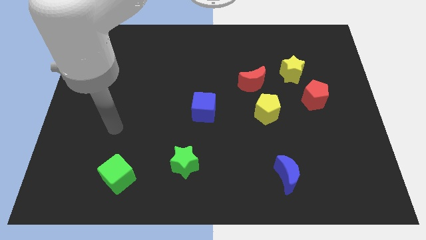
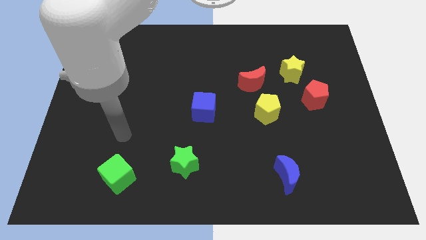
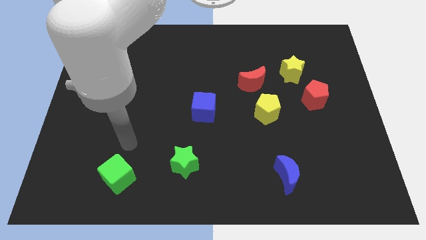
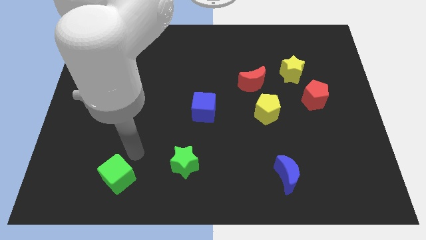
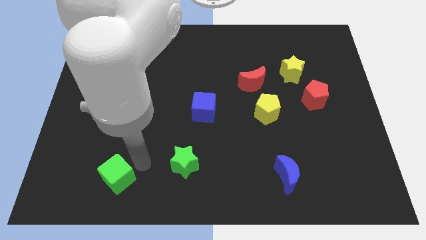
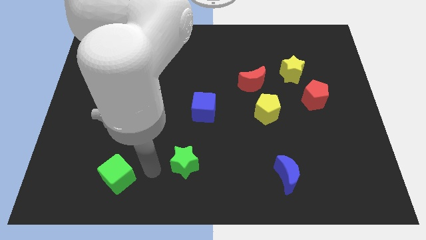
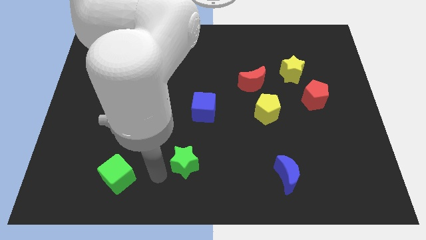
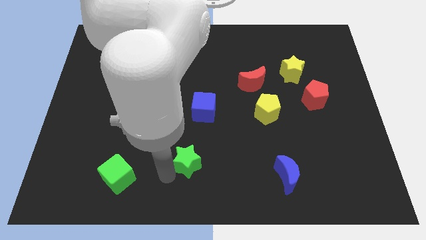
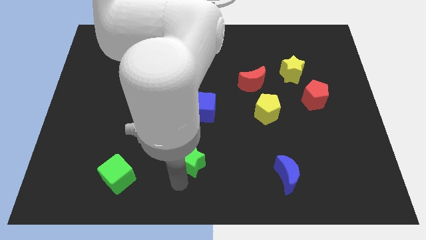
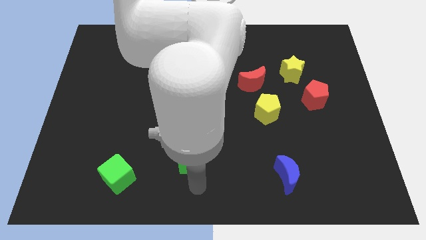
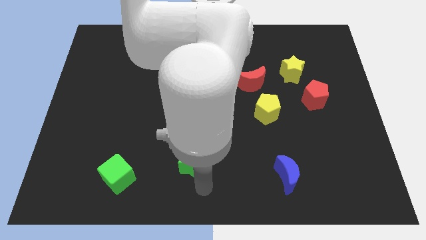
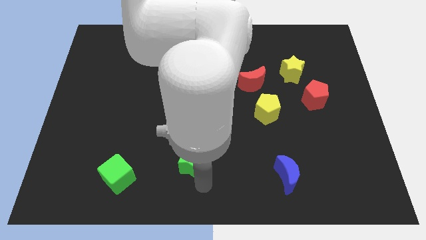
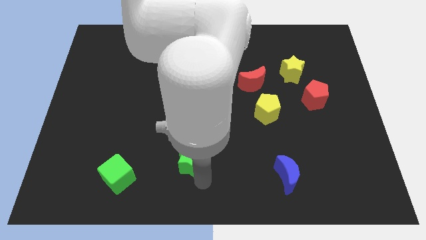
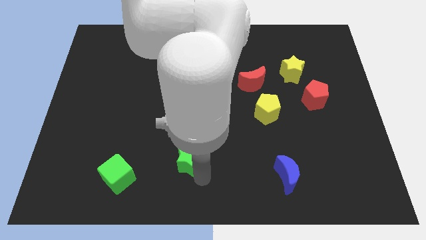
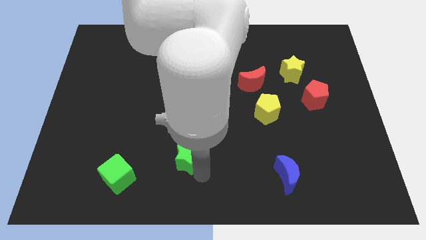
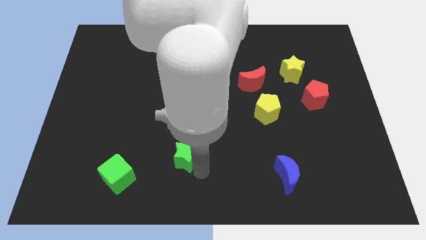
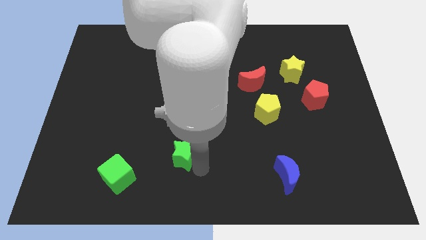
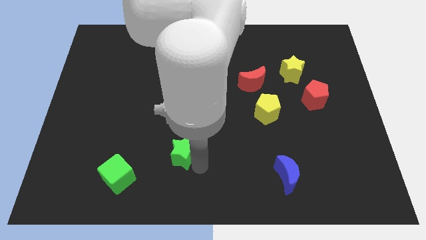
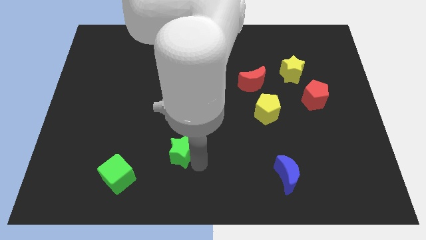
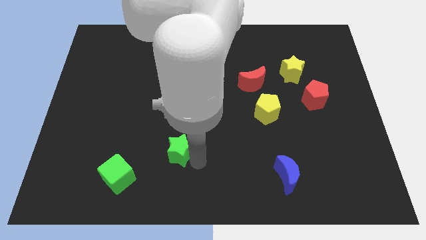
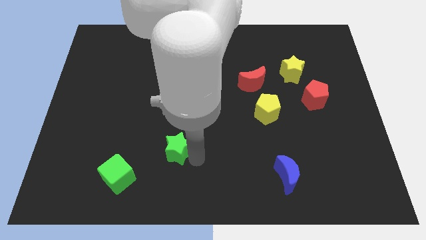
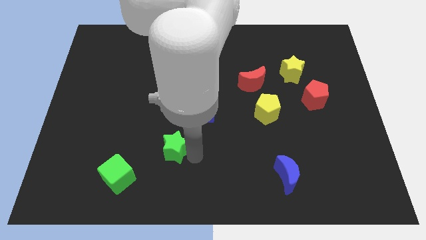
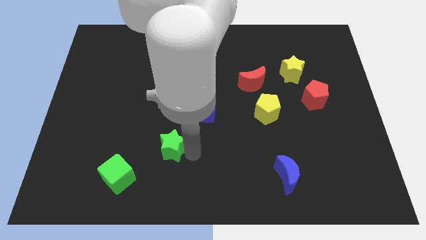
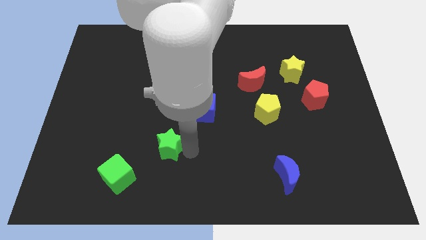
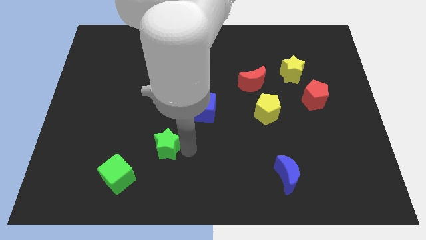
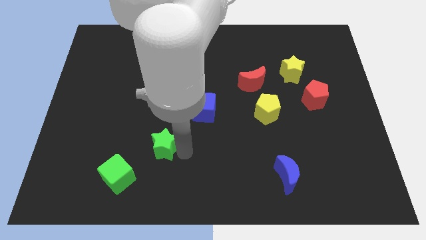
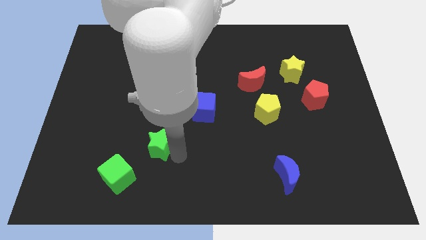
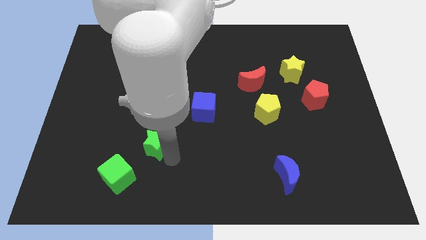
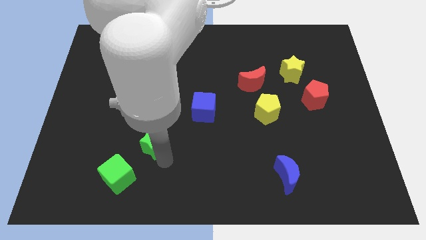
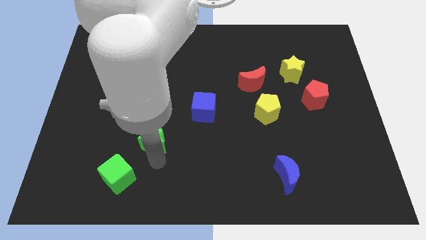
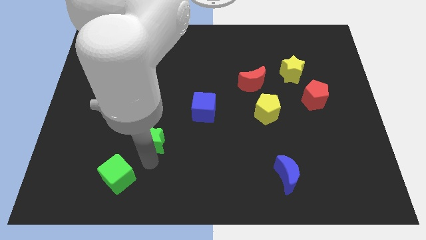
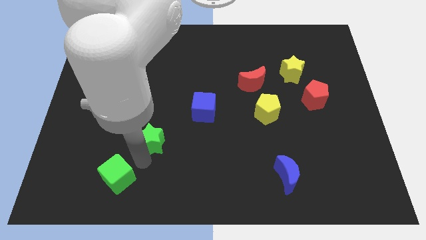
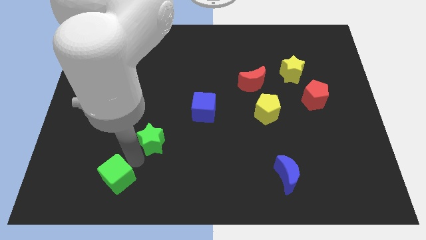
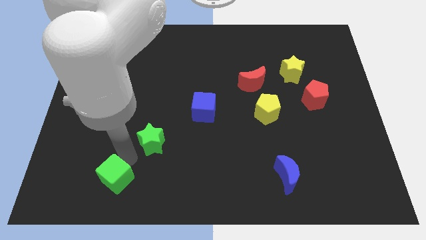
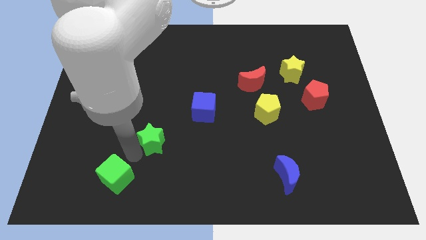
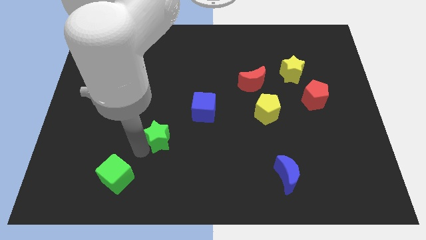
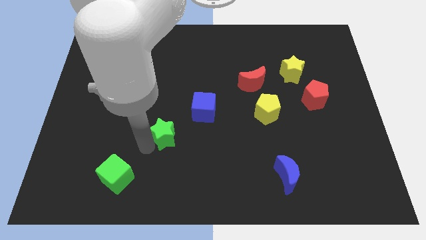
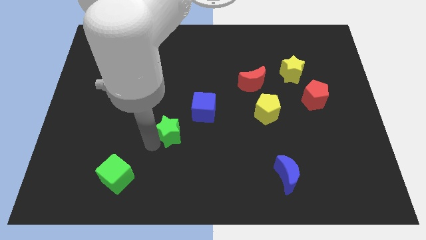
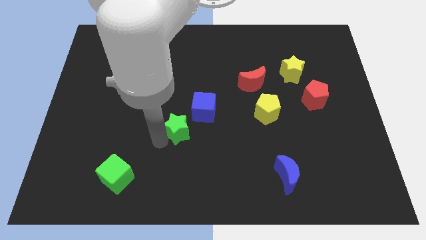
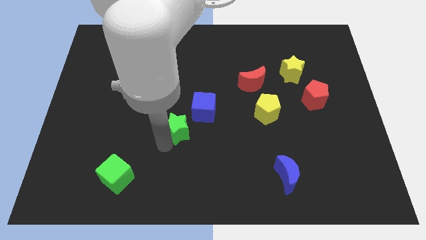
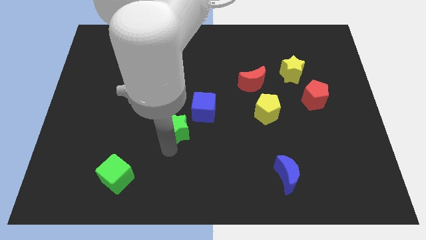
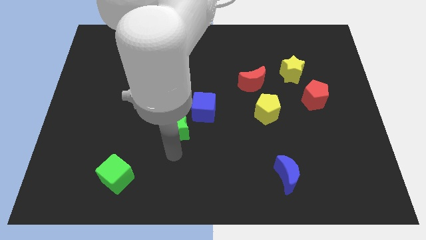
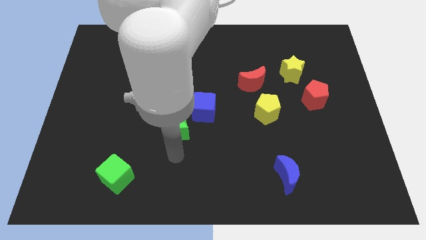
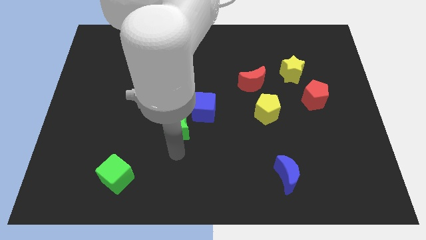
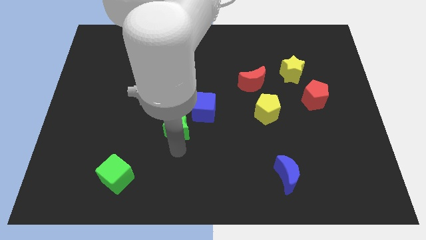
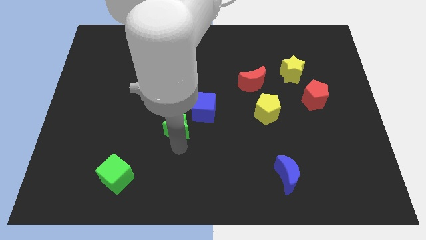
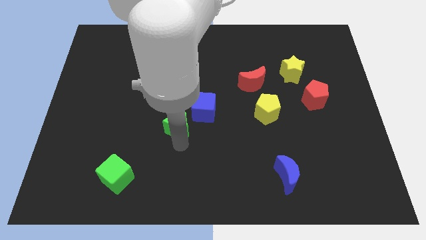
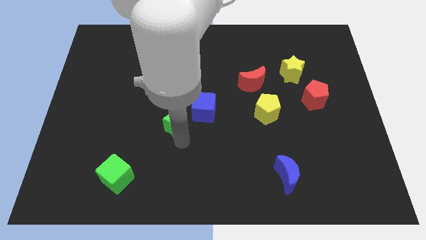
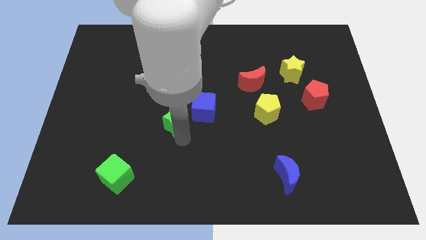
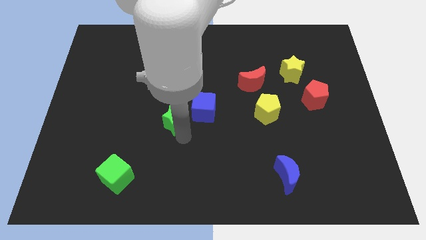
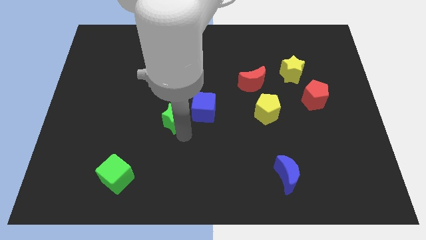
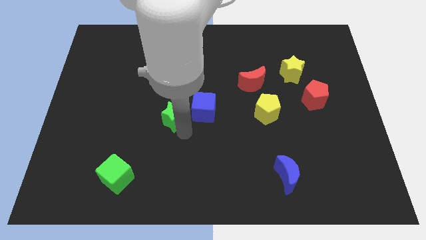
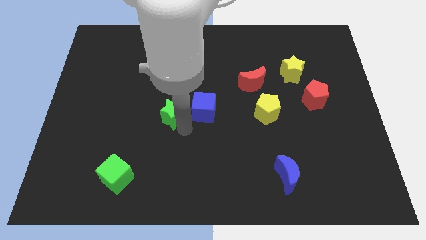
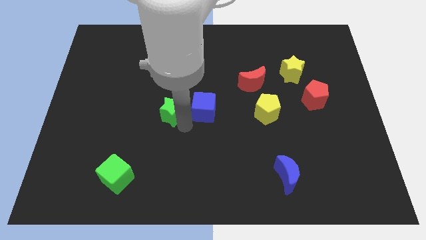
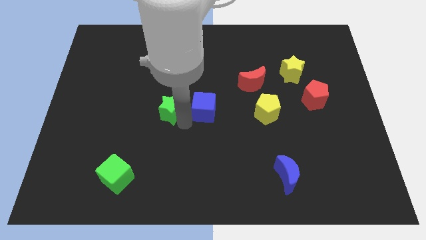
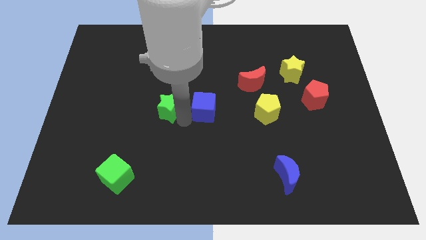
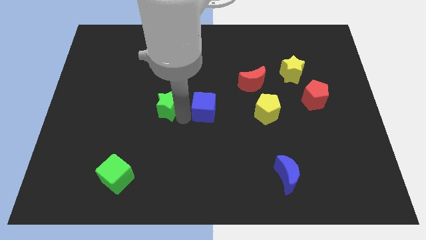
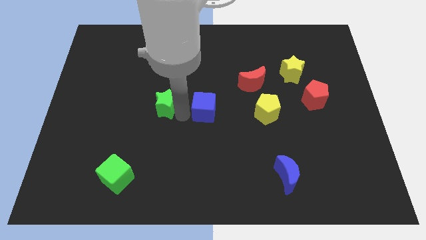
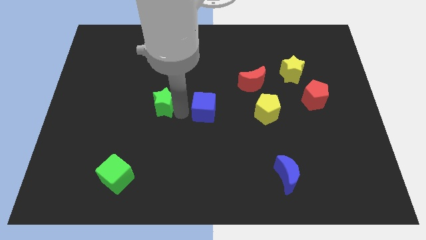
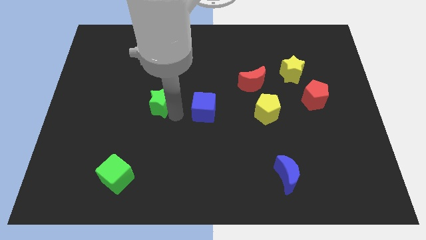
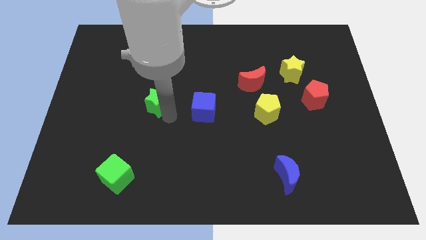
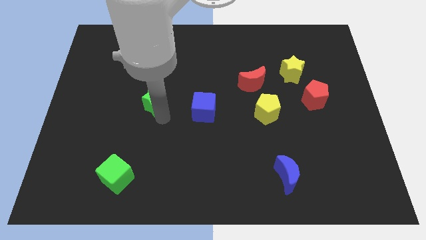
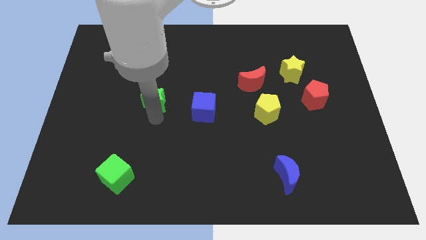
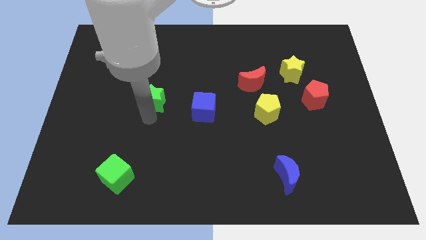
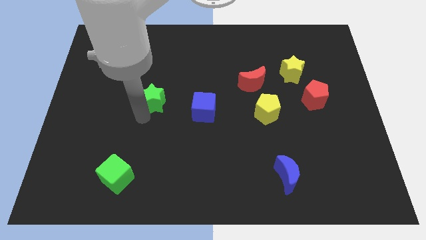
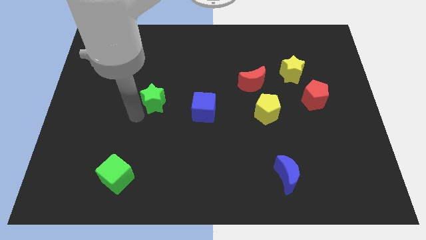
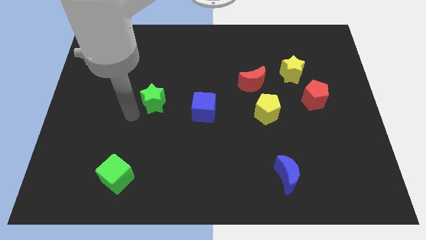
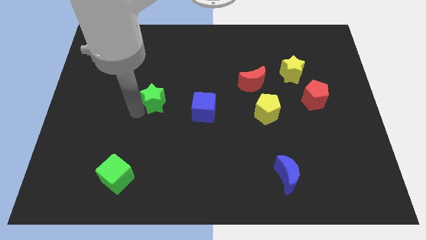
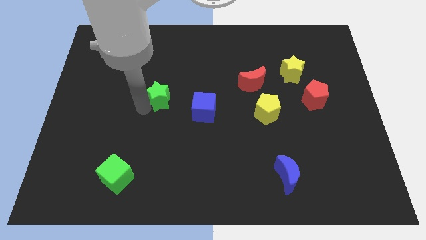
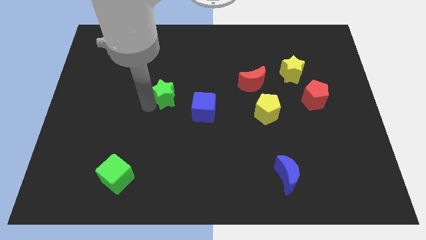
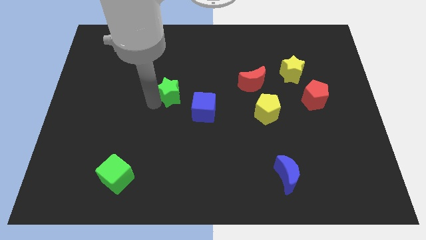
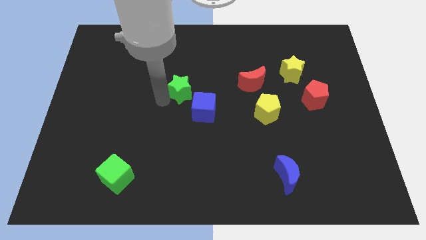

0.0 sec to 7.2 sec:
push the green star upwards

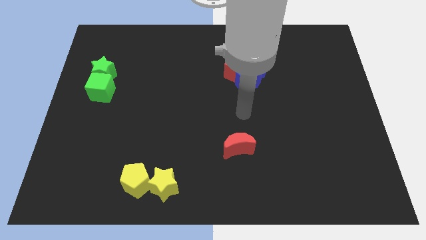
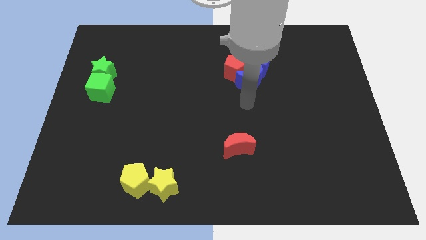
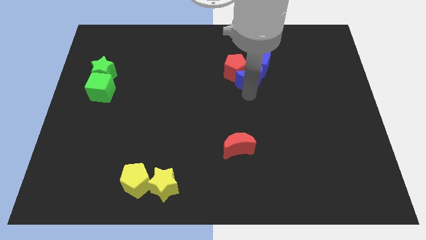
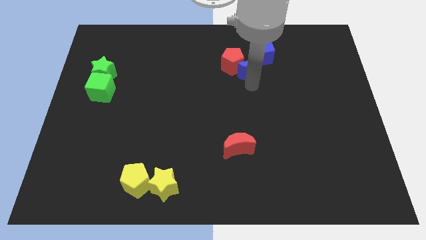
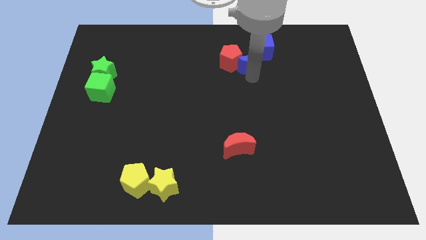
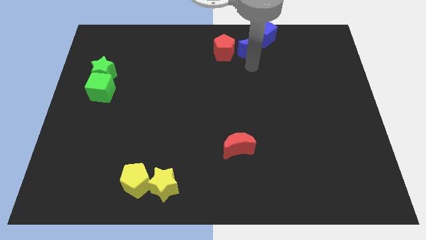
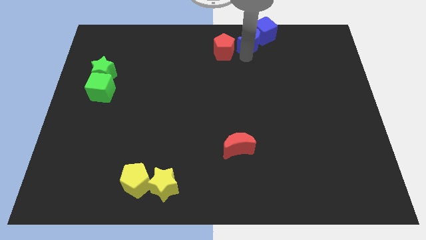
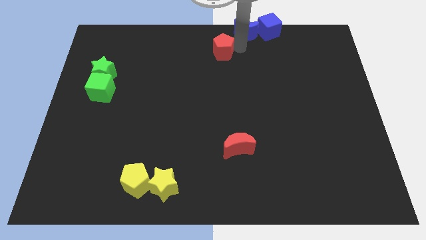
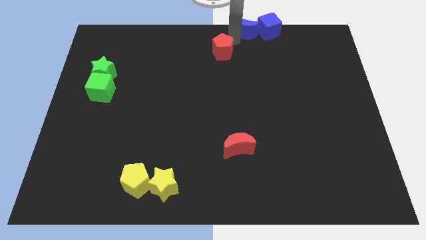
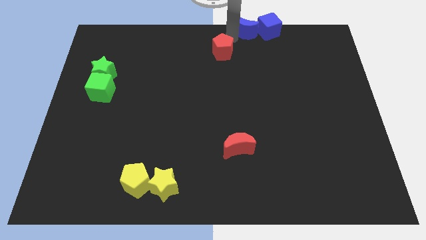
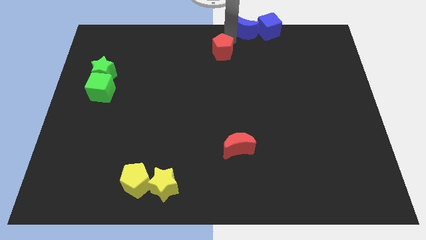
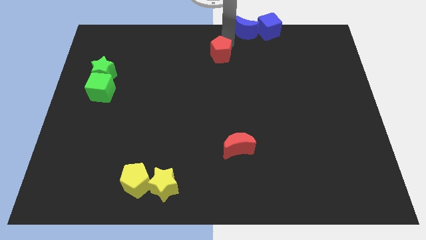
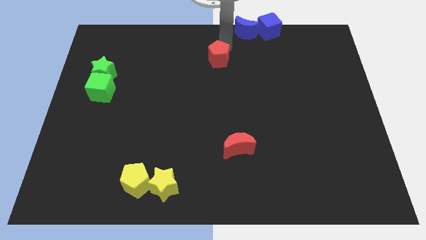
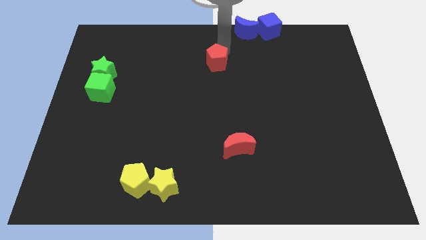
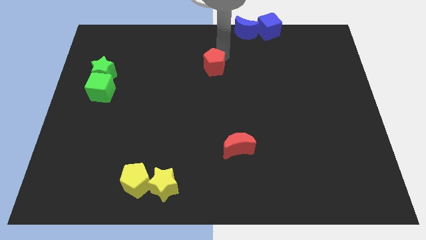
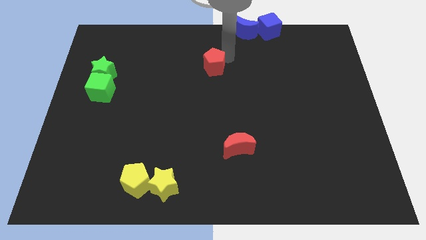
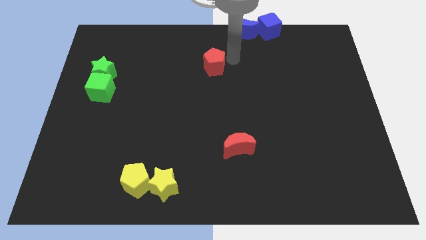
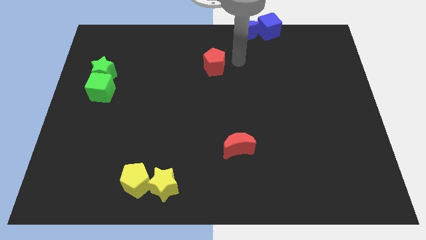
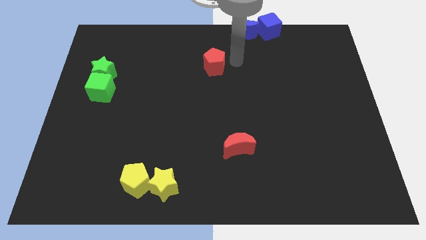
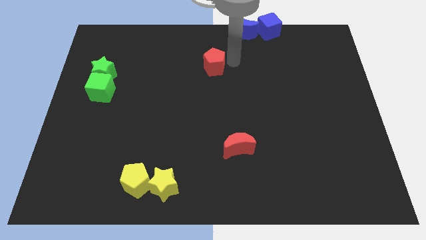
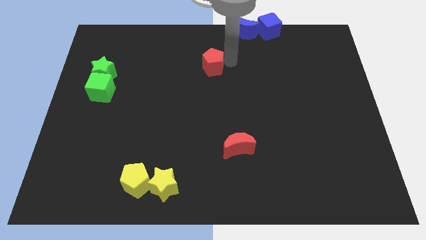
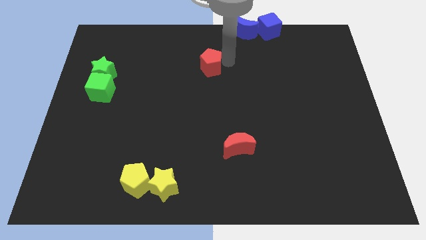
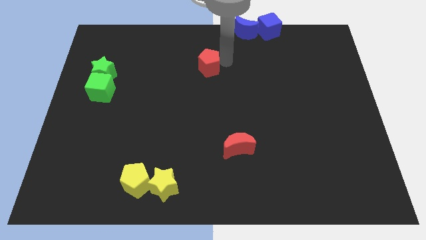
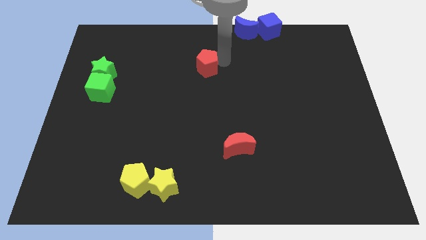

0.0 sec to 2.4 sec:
push the red pentagon somewhat to the left
